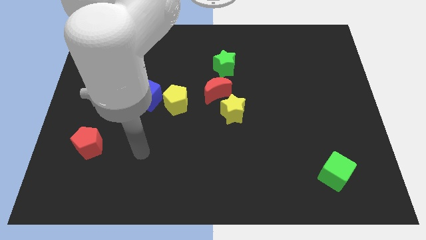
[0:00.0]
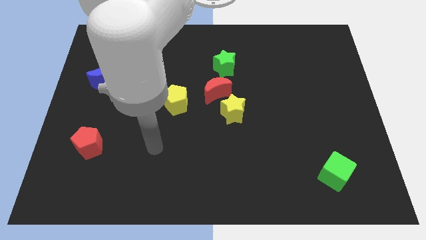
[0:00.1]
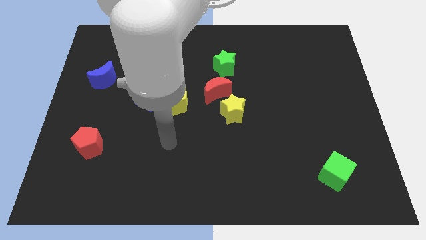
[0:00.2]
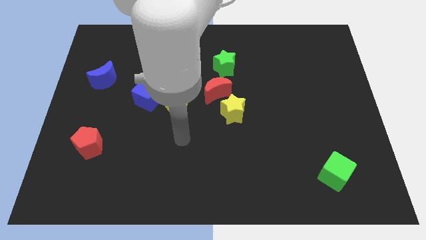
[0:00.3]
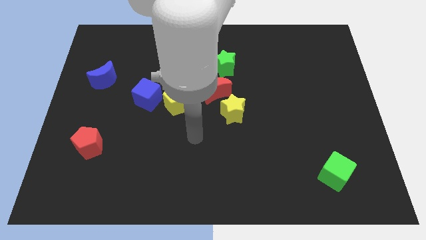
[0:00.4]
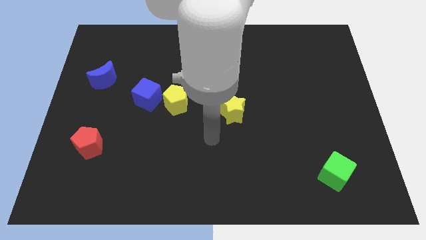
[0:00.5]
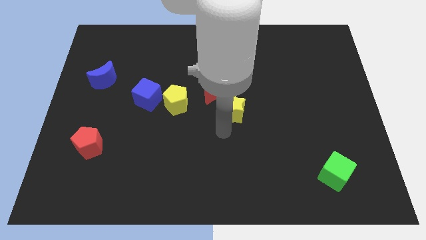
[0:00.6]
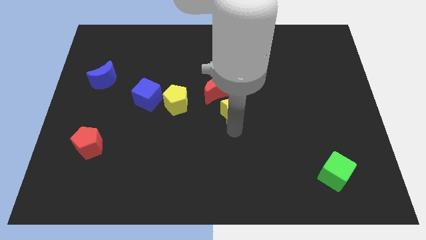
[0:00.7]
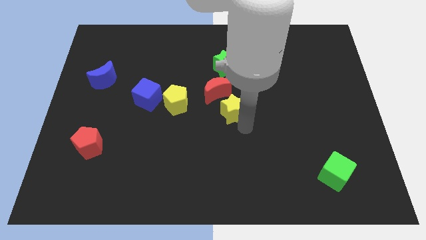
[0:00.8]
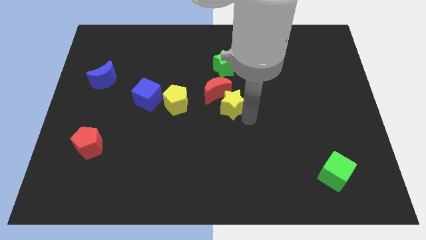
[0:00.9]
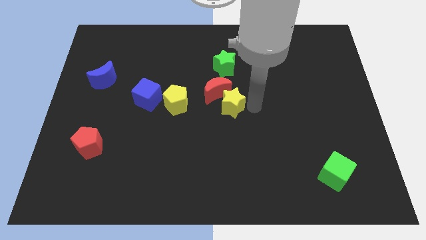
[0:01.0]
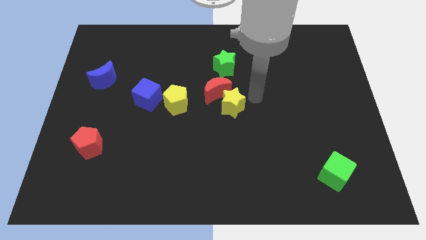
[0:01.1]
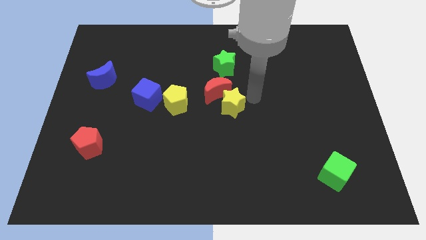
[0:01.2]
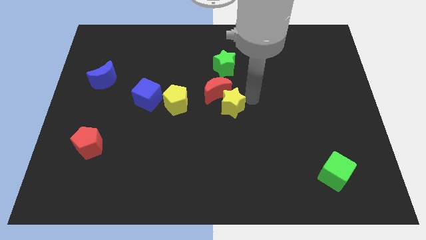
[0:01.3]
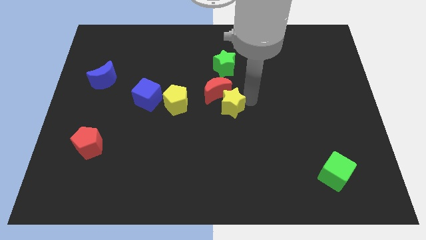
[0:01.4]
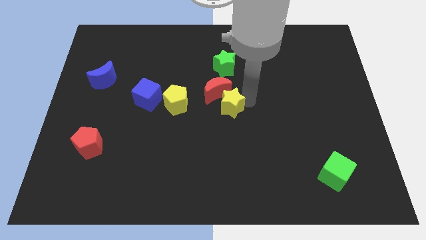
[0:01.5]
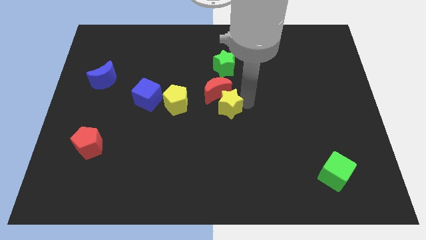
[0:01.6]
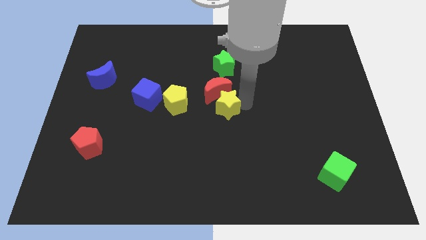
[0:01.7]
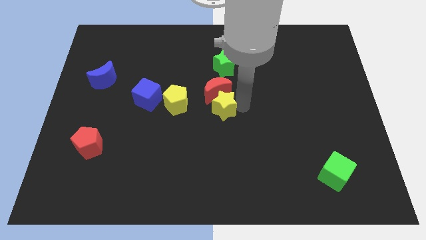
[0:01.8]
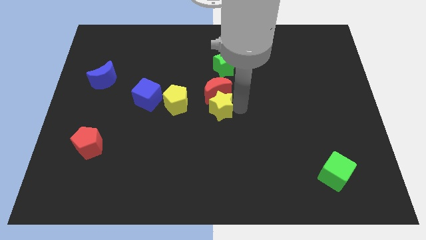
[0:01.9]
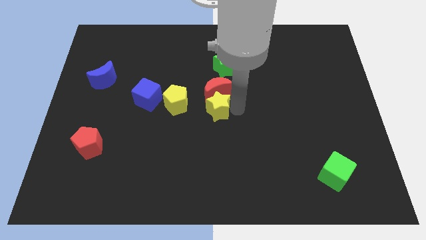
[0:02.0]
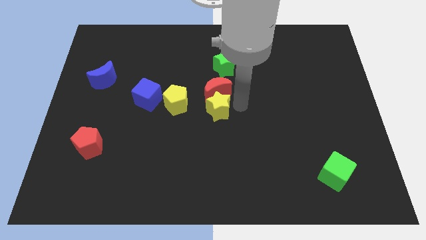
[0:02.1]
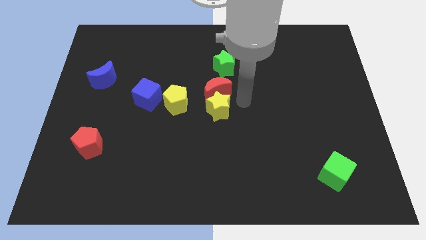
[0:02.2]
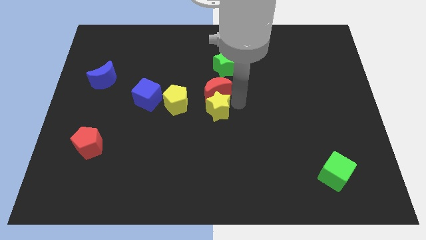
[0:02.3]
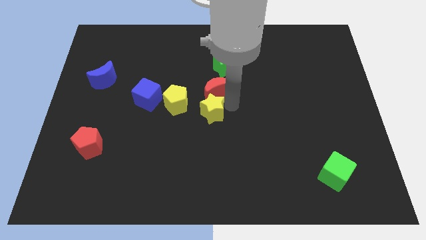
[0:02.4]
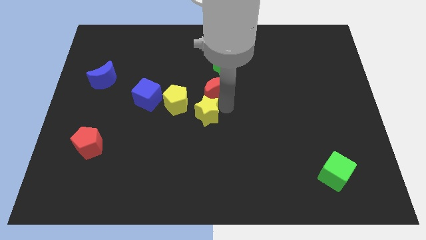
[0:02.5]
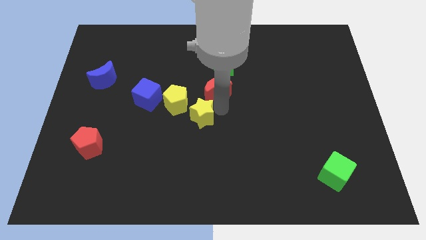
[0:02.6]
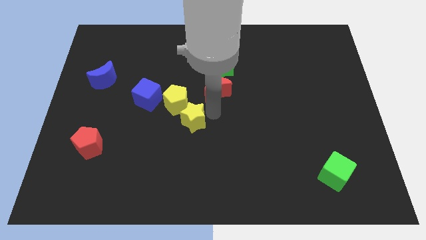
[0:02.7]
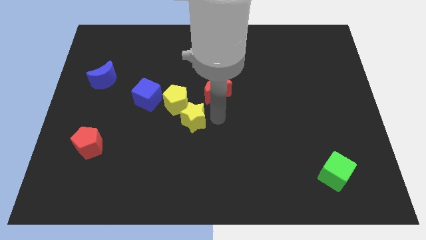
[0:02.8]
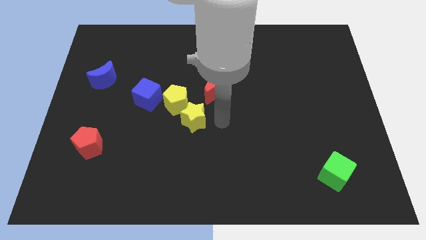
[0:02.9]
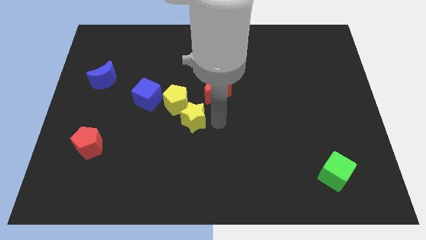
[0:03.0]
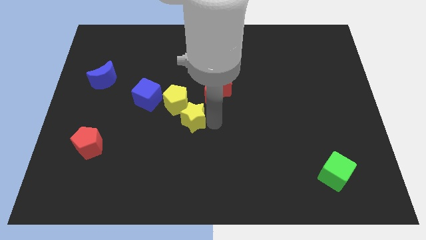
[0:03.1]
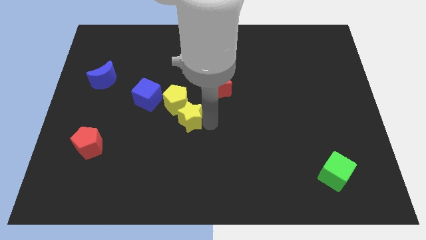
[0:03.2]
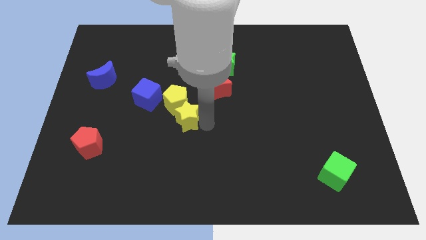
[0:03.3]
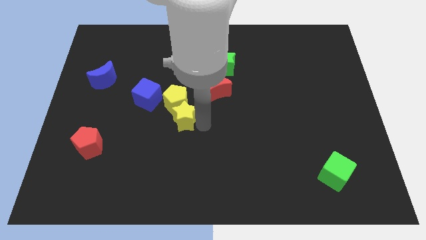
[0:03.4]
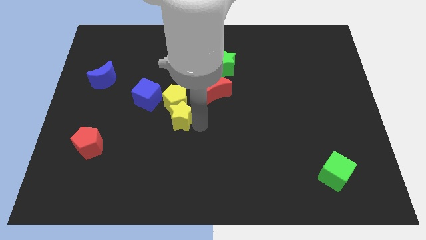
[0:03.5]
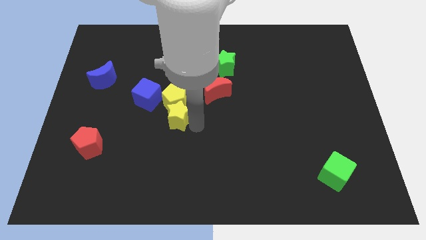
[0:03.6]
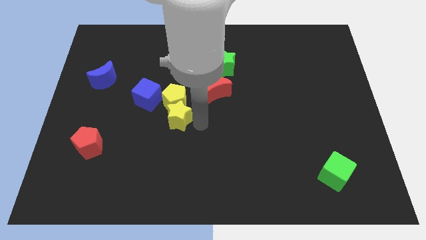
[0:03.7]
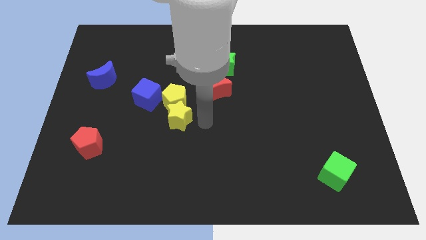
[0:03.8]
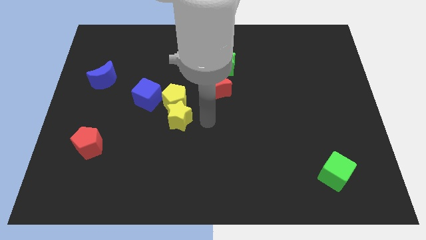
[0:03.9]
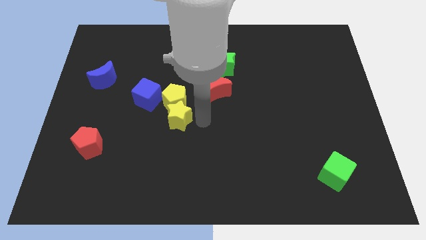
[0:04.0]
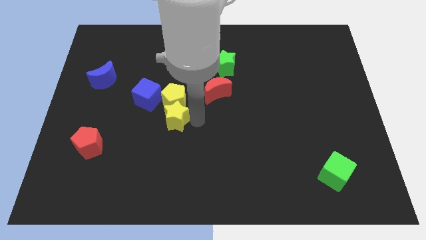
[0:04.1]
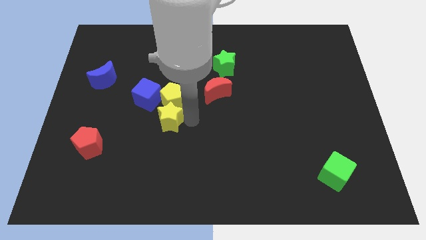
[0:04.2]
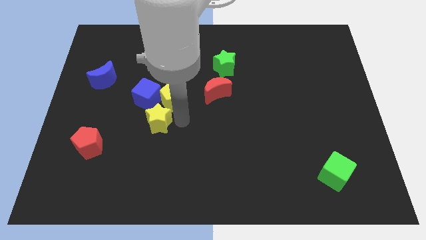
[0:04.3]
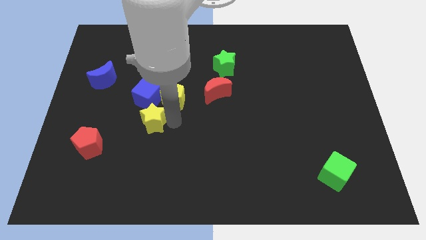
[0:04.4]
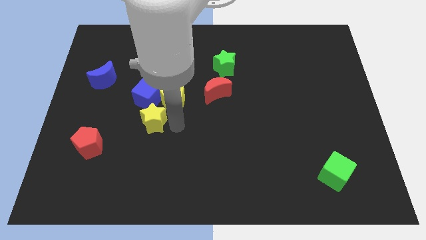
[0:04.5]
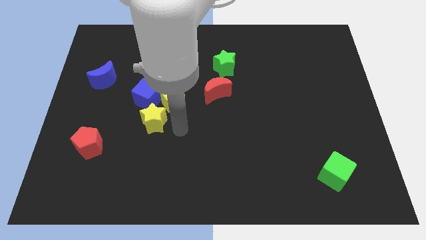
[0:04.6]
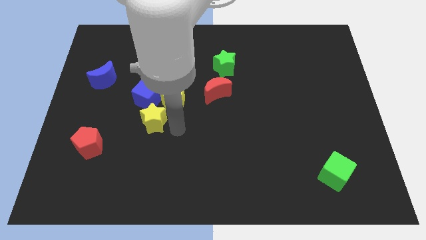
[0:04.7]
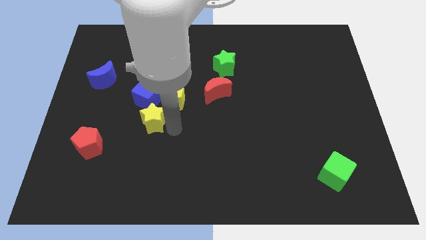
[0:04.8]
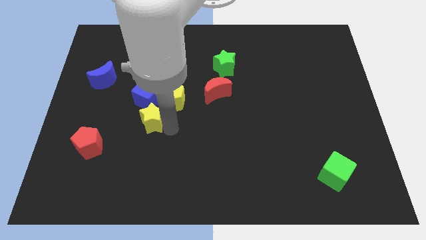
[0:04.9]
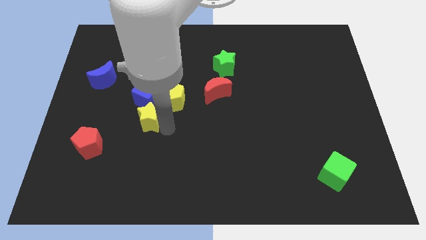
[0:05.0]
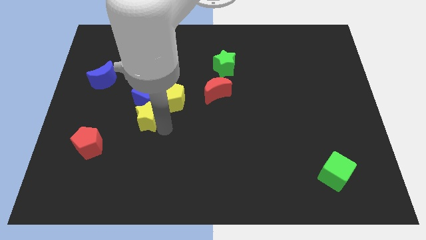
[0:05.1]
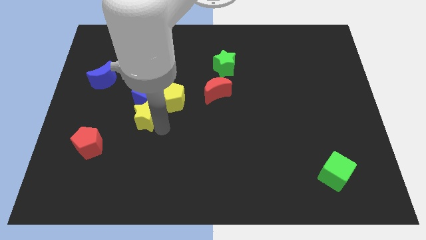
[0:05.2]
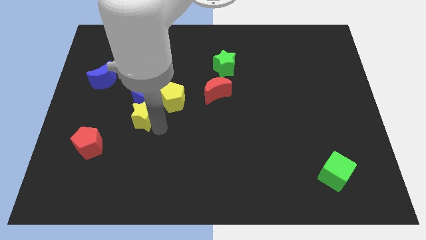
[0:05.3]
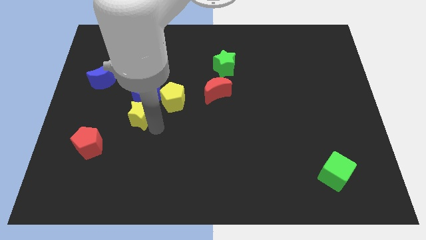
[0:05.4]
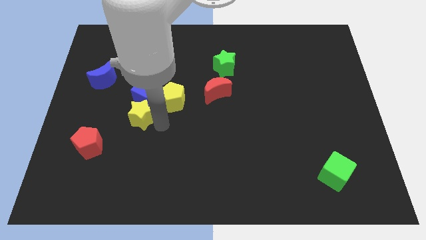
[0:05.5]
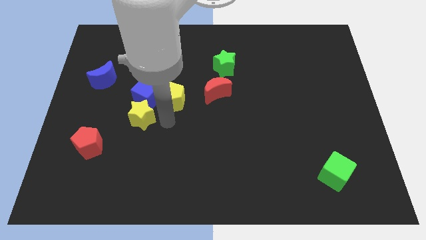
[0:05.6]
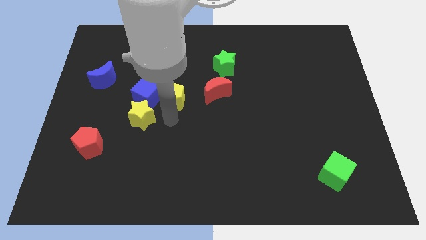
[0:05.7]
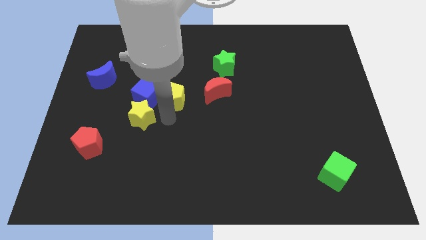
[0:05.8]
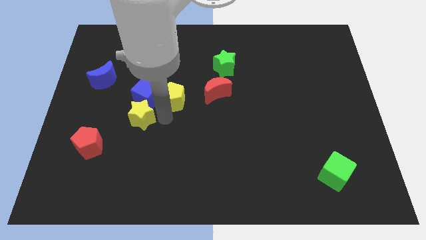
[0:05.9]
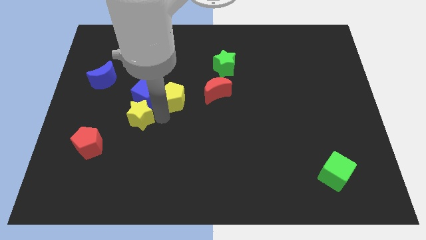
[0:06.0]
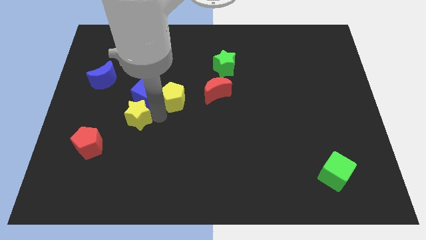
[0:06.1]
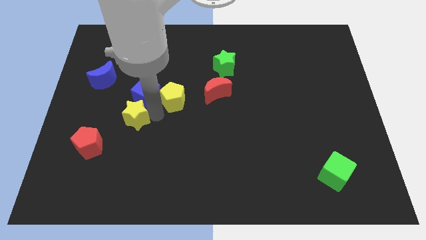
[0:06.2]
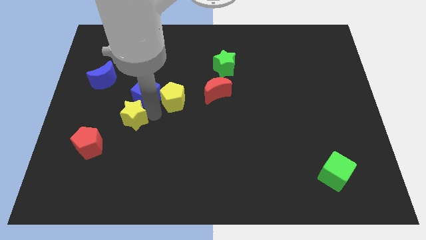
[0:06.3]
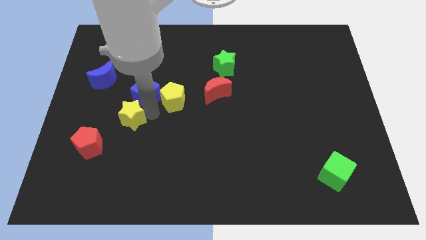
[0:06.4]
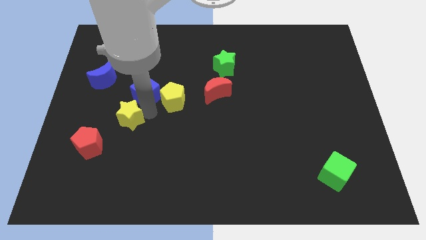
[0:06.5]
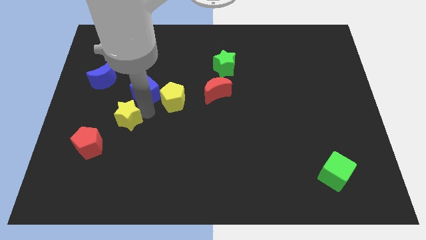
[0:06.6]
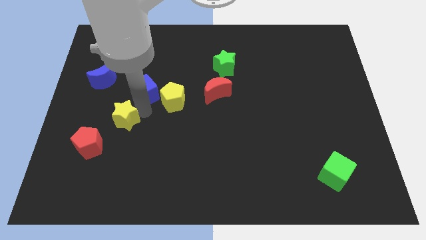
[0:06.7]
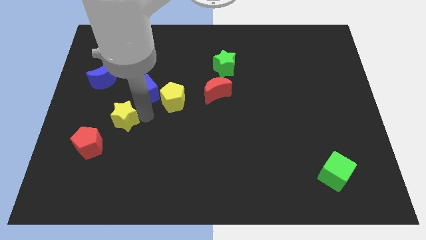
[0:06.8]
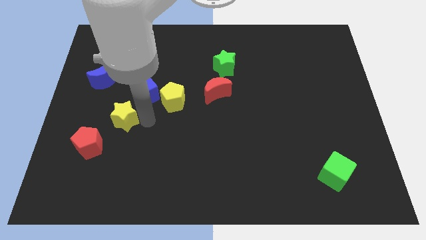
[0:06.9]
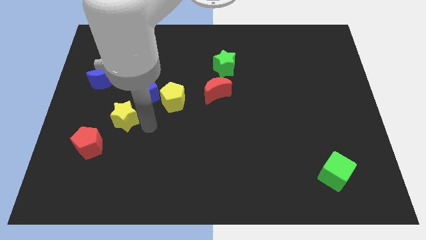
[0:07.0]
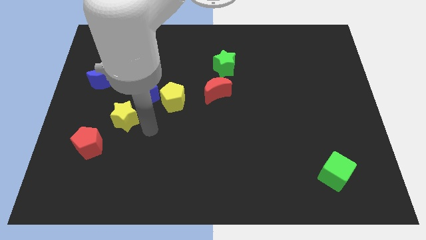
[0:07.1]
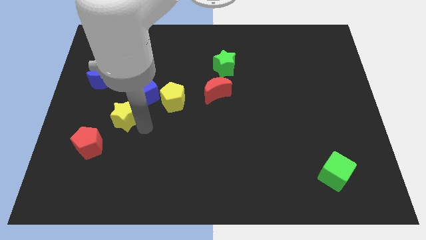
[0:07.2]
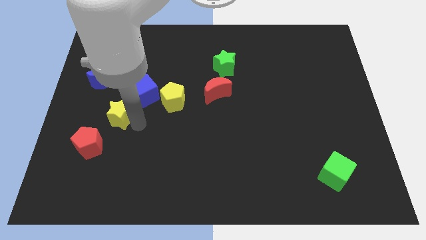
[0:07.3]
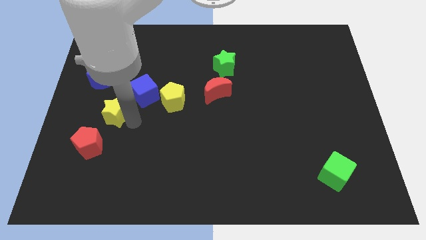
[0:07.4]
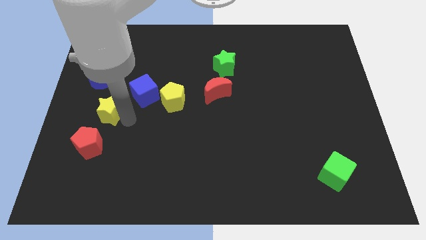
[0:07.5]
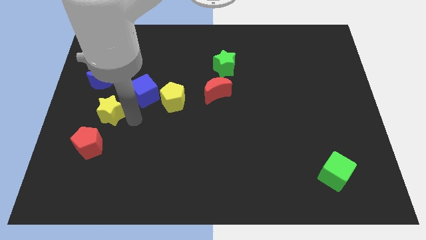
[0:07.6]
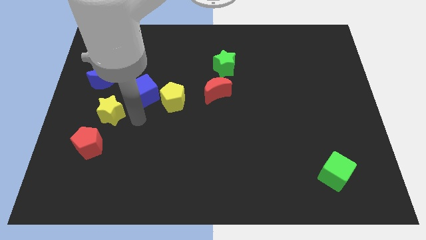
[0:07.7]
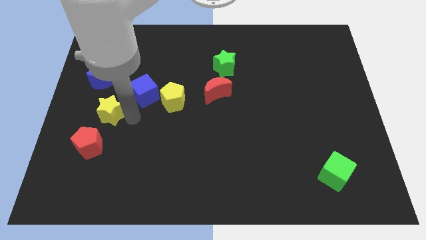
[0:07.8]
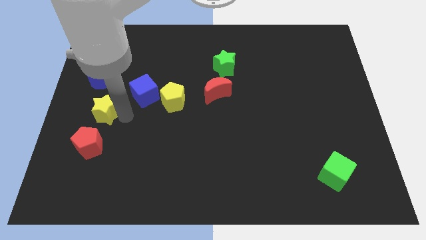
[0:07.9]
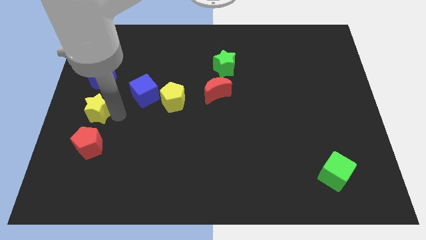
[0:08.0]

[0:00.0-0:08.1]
put the yellow star to the left side of the board
